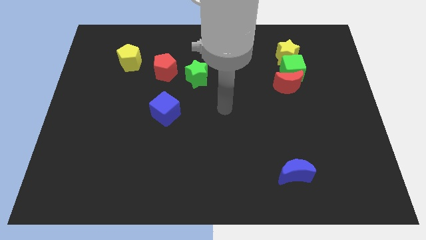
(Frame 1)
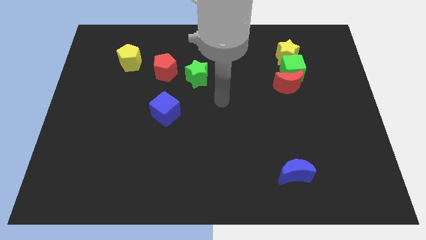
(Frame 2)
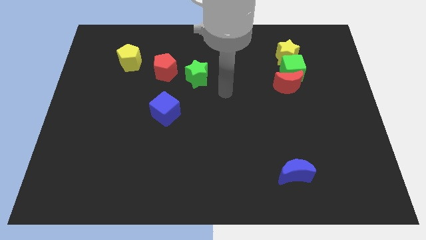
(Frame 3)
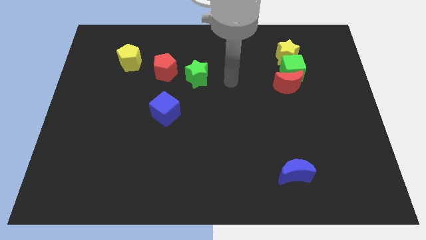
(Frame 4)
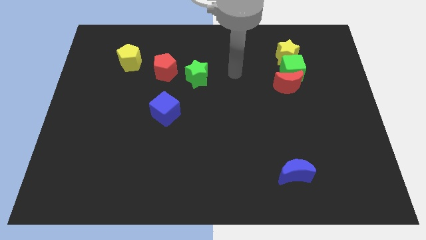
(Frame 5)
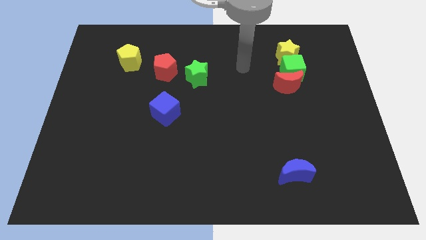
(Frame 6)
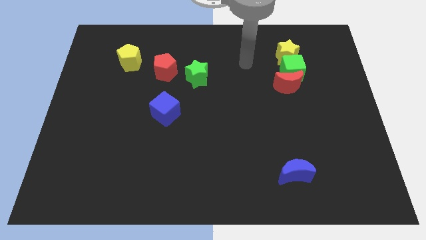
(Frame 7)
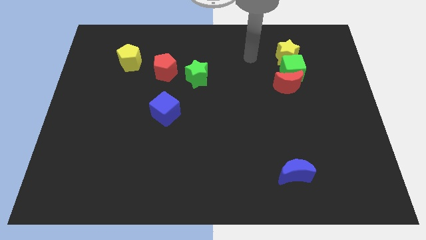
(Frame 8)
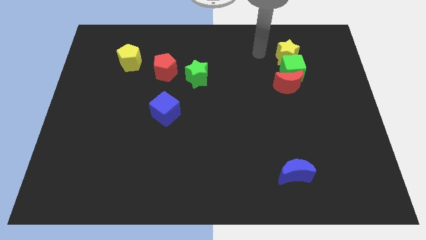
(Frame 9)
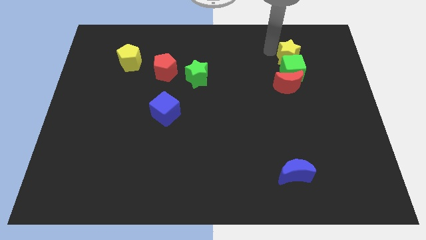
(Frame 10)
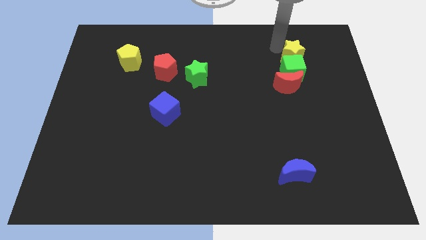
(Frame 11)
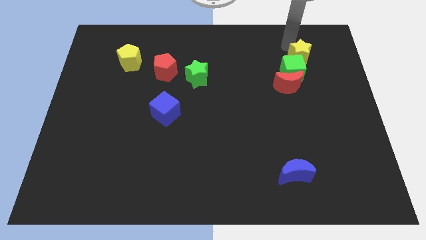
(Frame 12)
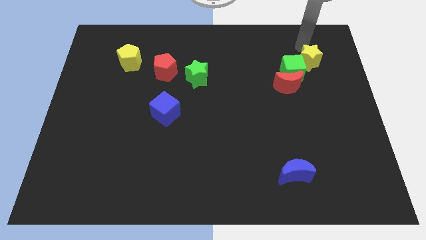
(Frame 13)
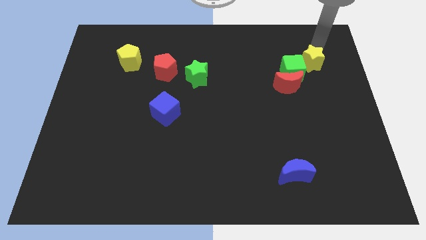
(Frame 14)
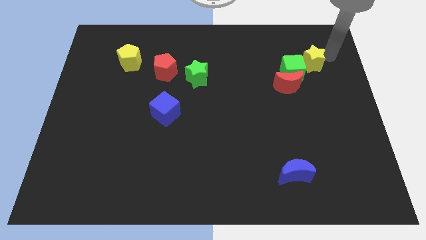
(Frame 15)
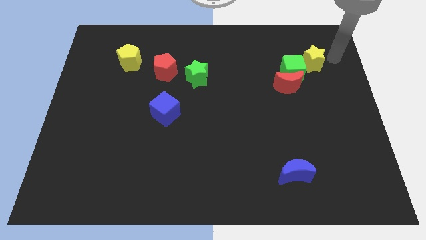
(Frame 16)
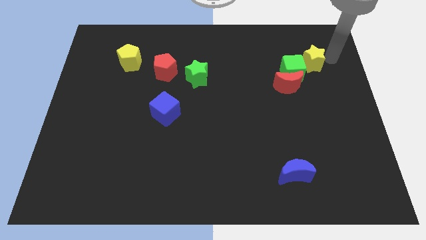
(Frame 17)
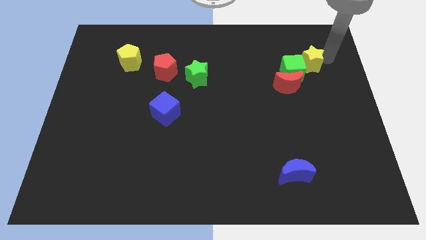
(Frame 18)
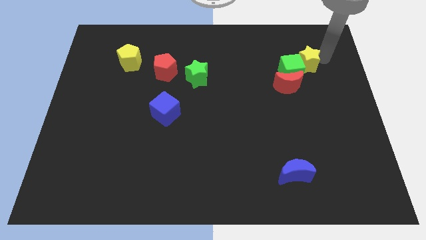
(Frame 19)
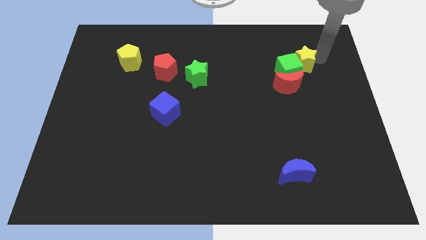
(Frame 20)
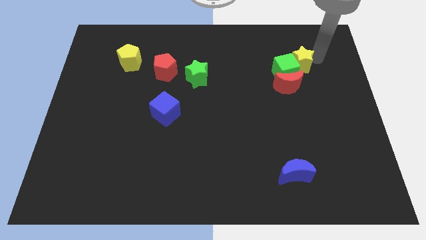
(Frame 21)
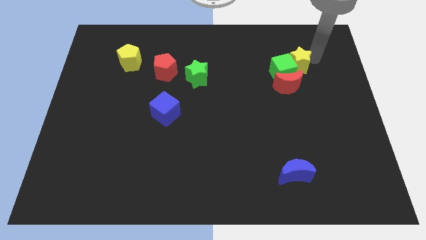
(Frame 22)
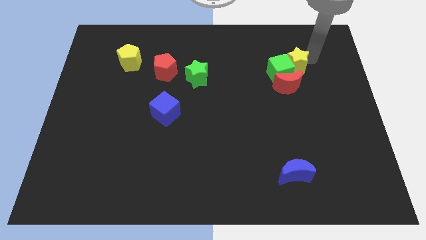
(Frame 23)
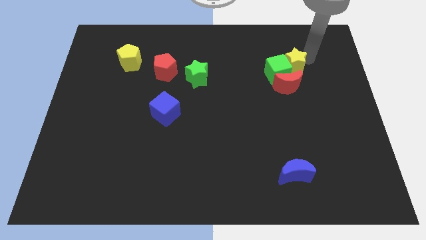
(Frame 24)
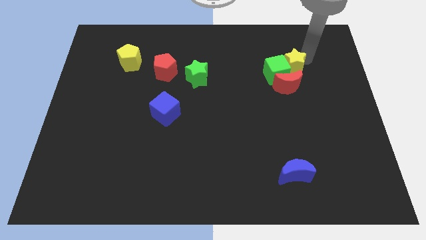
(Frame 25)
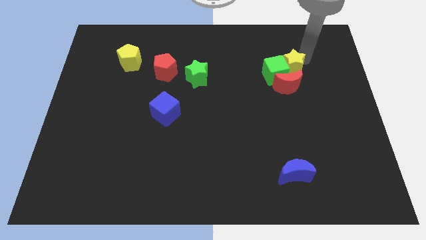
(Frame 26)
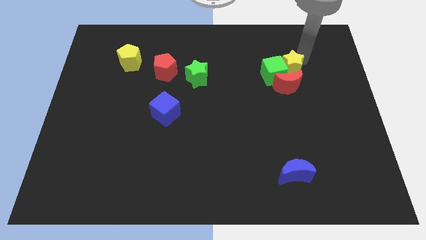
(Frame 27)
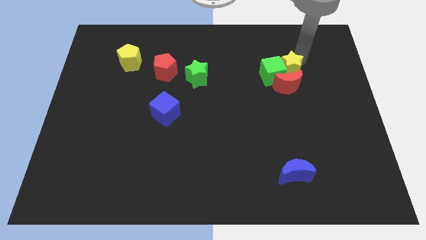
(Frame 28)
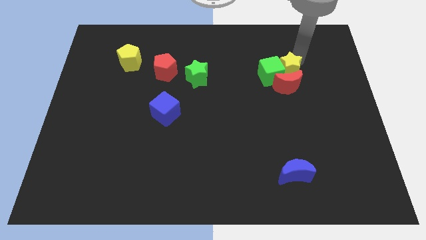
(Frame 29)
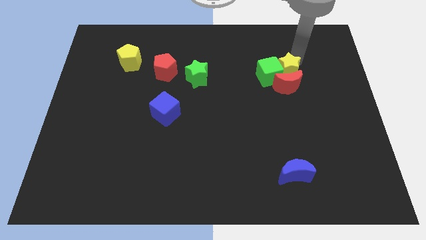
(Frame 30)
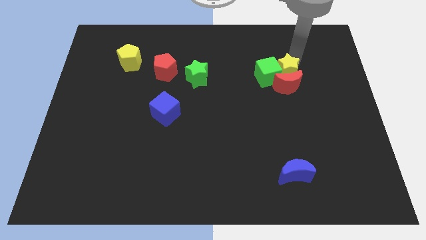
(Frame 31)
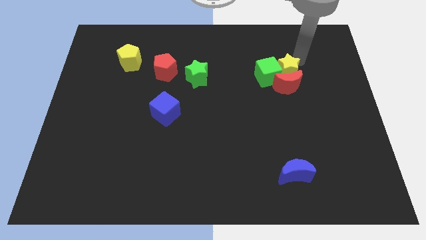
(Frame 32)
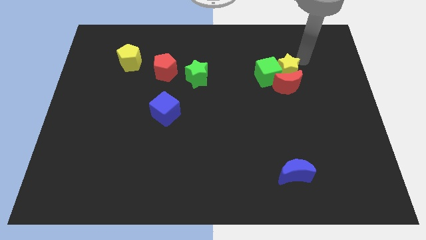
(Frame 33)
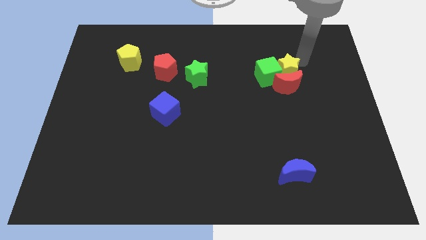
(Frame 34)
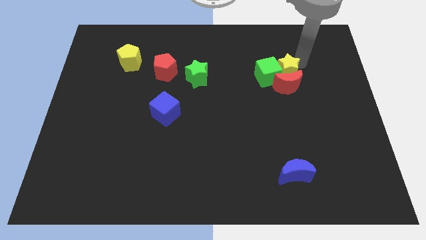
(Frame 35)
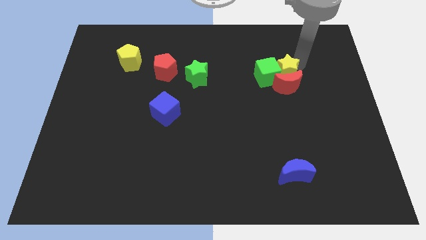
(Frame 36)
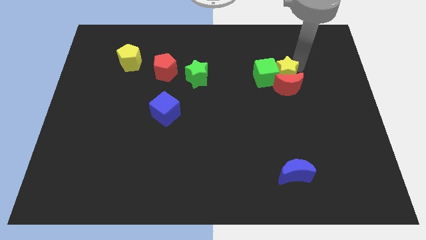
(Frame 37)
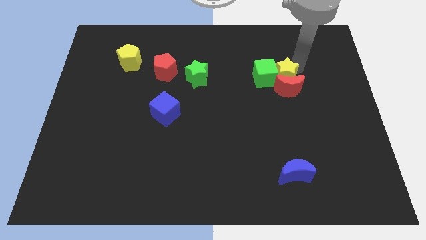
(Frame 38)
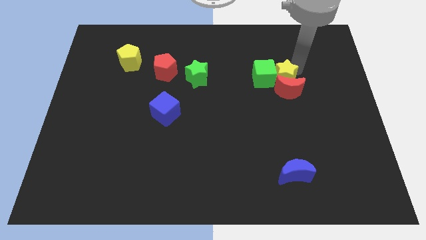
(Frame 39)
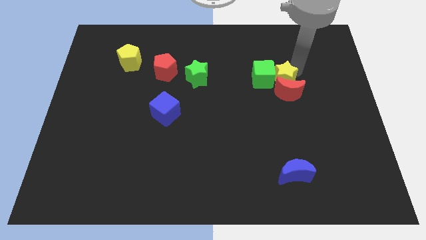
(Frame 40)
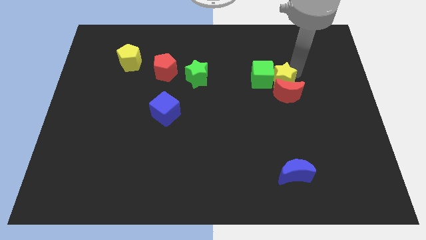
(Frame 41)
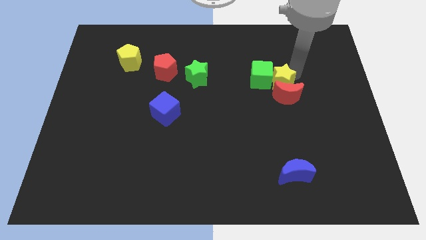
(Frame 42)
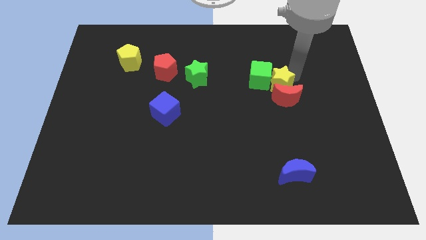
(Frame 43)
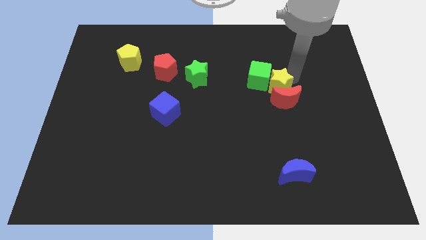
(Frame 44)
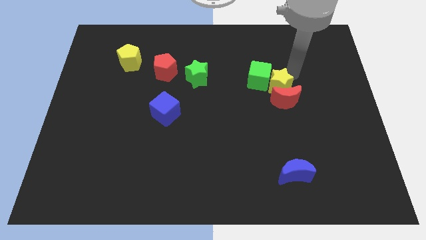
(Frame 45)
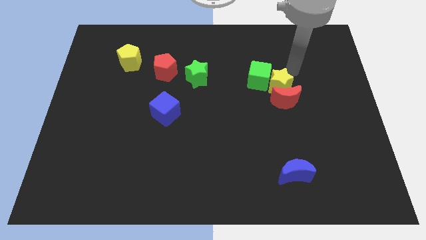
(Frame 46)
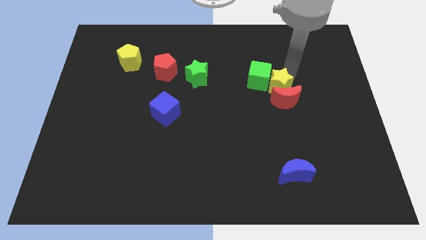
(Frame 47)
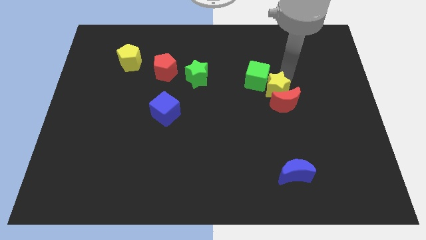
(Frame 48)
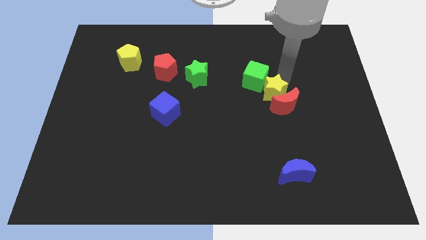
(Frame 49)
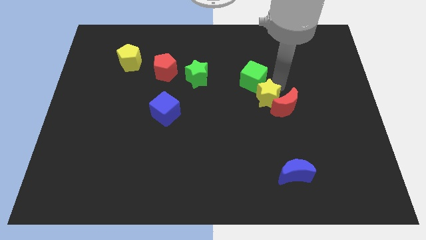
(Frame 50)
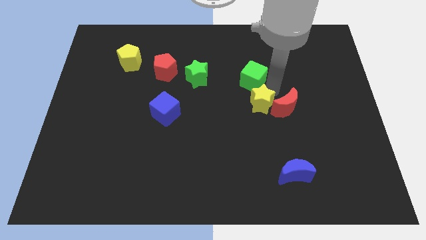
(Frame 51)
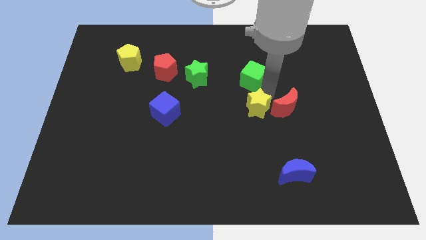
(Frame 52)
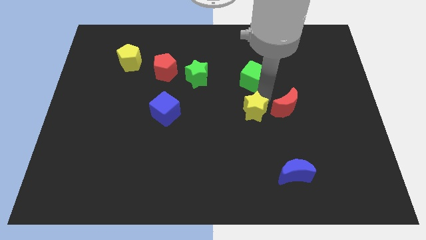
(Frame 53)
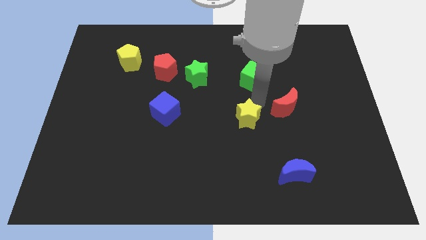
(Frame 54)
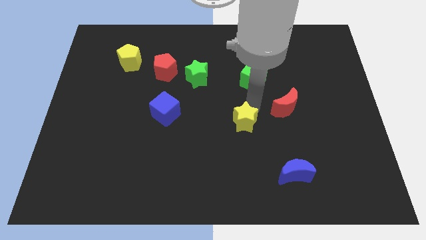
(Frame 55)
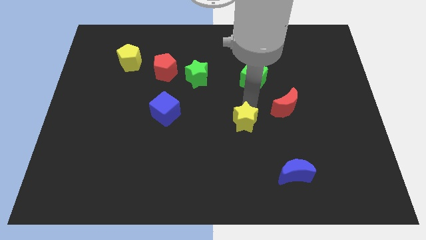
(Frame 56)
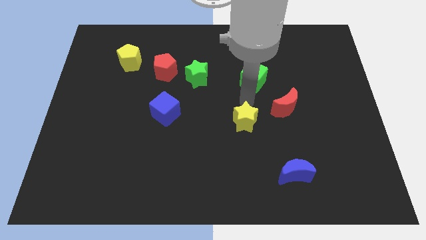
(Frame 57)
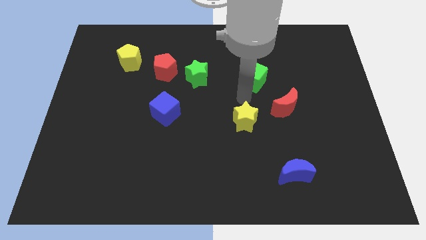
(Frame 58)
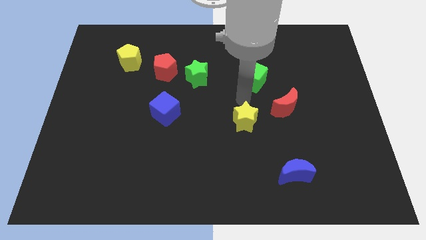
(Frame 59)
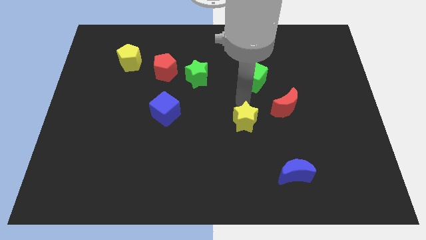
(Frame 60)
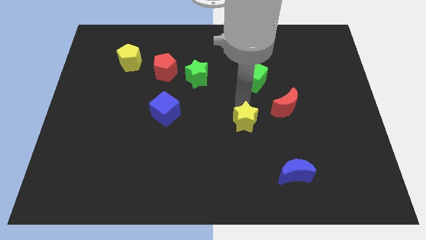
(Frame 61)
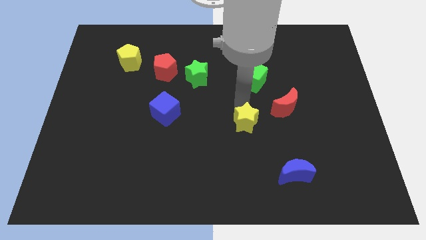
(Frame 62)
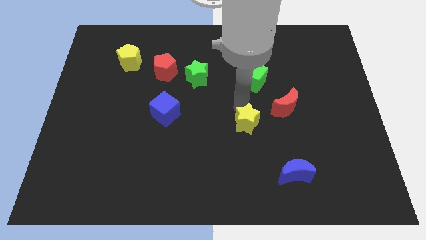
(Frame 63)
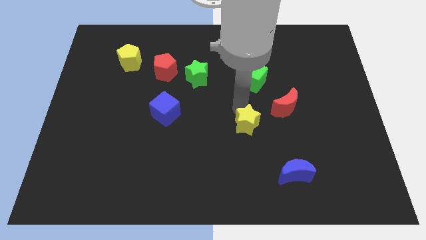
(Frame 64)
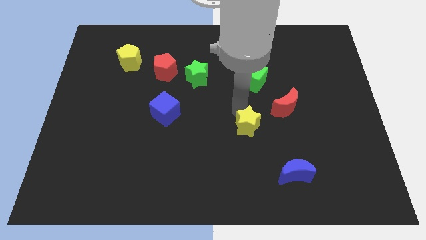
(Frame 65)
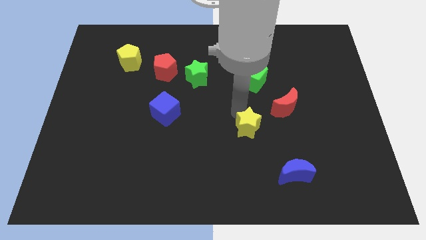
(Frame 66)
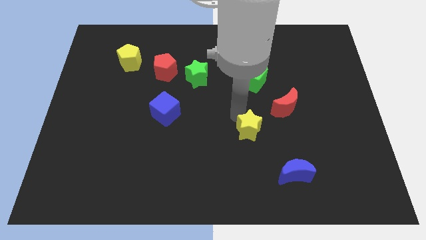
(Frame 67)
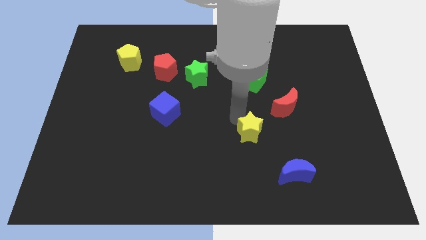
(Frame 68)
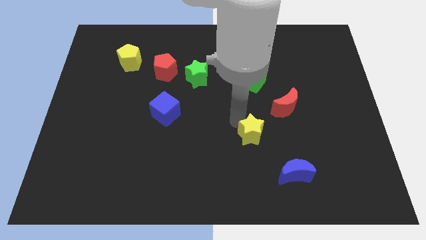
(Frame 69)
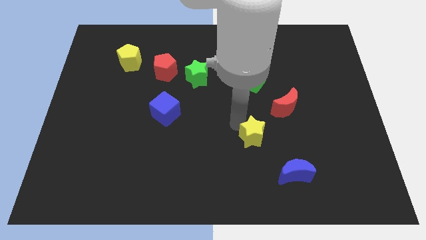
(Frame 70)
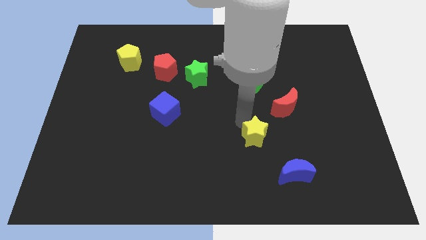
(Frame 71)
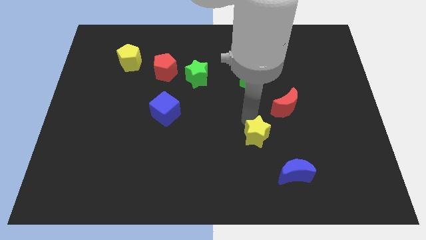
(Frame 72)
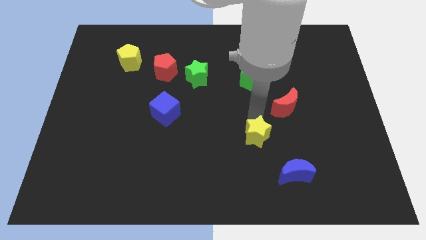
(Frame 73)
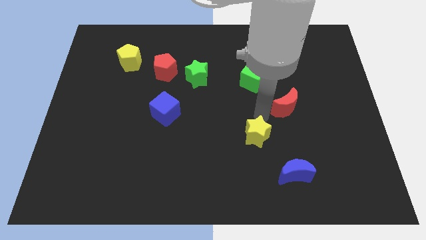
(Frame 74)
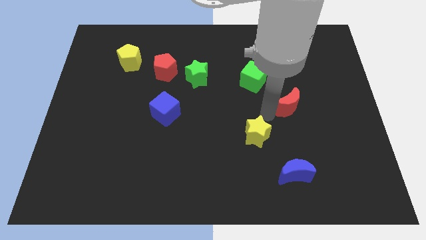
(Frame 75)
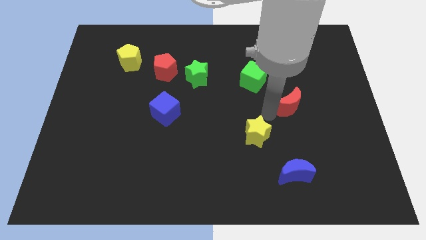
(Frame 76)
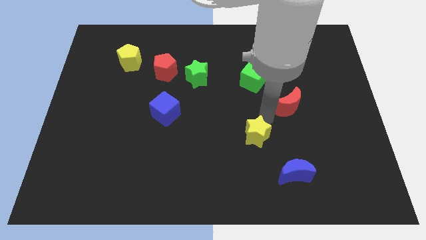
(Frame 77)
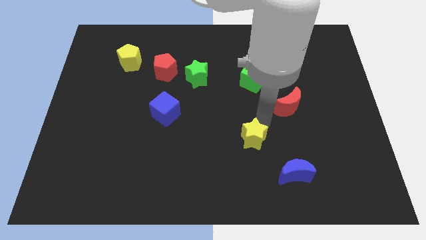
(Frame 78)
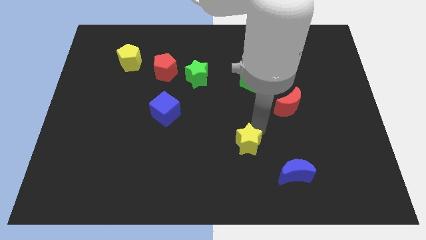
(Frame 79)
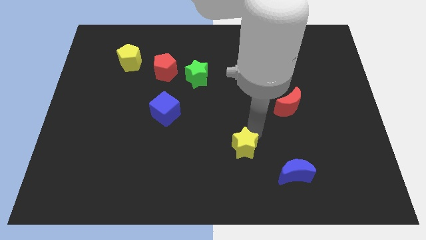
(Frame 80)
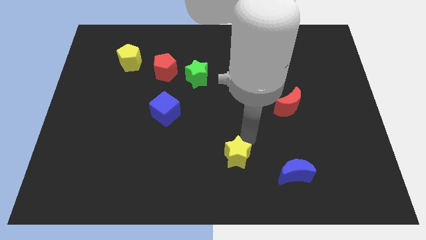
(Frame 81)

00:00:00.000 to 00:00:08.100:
put the yellow star to the bottom
